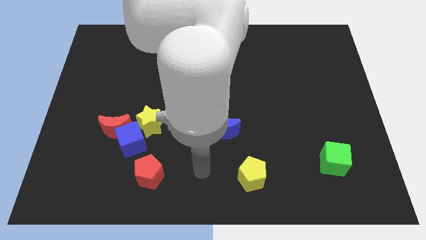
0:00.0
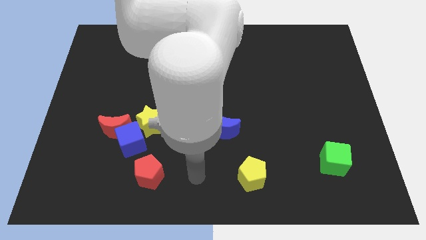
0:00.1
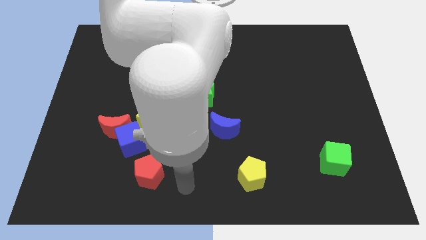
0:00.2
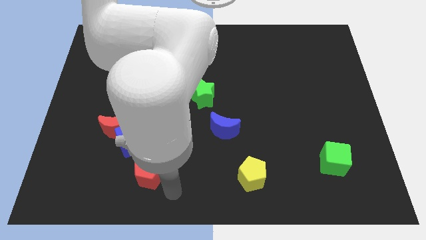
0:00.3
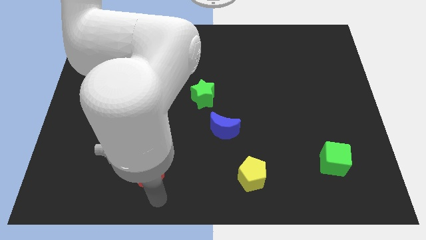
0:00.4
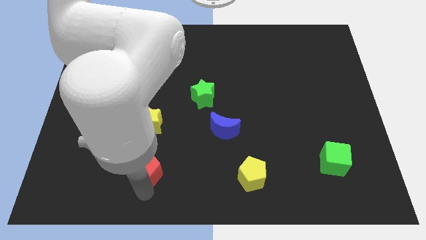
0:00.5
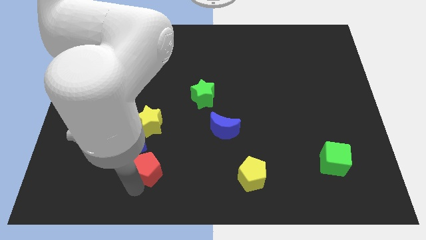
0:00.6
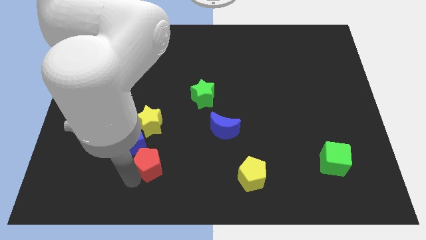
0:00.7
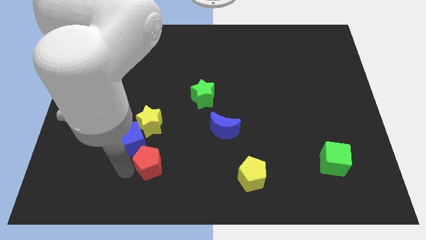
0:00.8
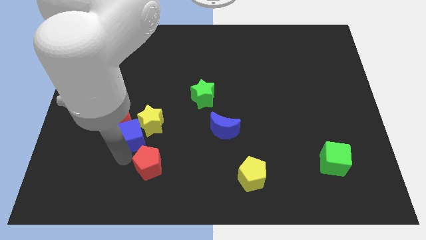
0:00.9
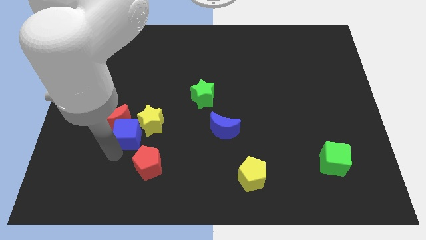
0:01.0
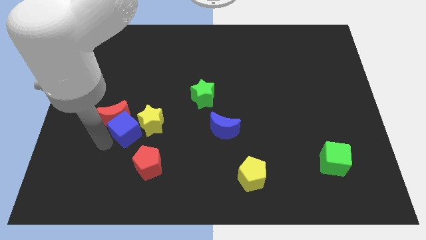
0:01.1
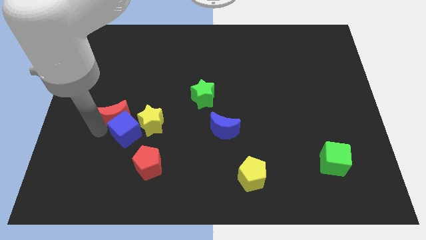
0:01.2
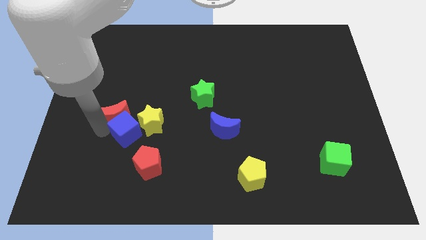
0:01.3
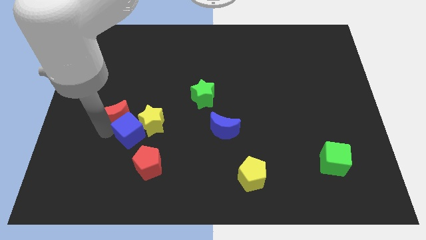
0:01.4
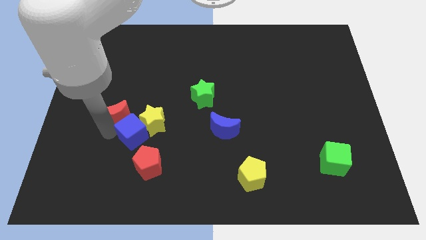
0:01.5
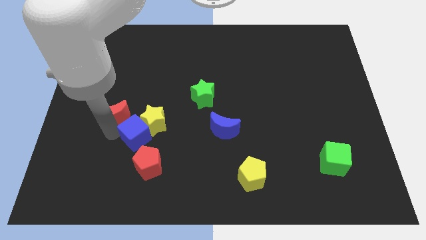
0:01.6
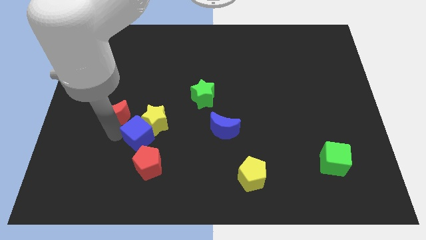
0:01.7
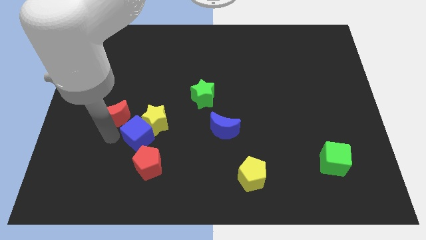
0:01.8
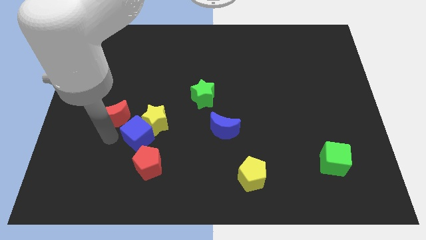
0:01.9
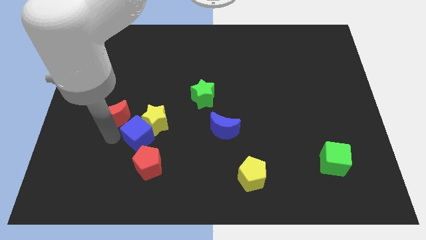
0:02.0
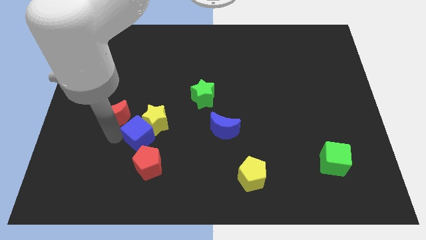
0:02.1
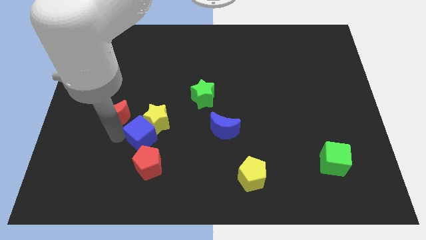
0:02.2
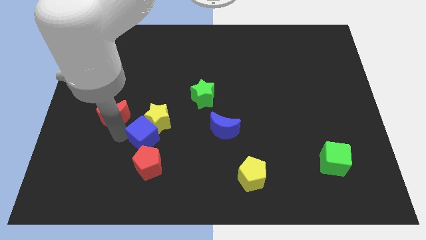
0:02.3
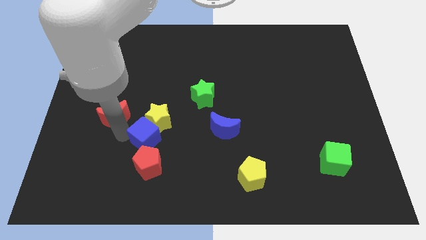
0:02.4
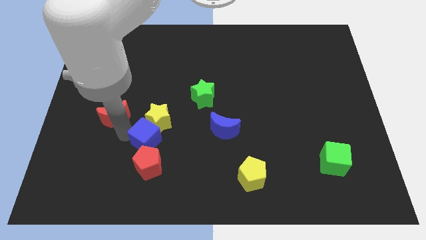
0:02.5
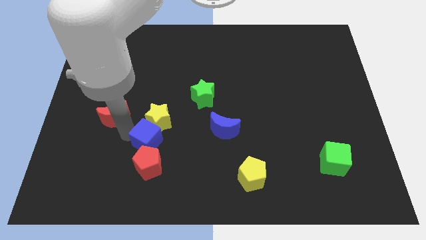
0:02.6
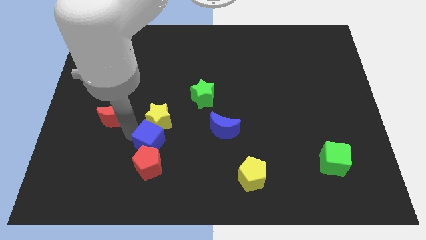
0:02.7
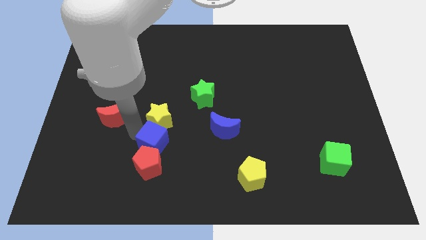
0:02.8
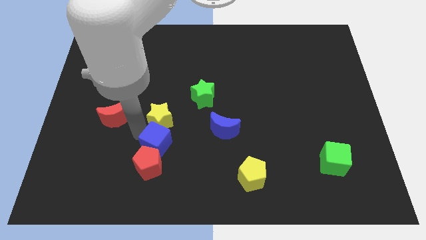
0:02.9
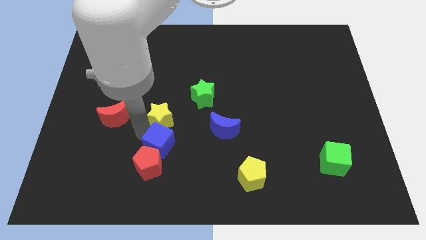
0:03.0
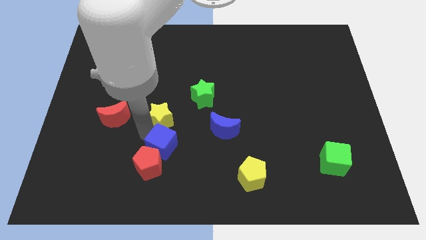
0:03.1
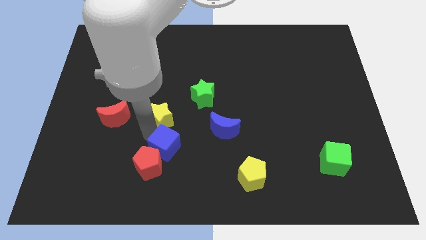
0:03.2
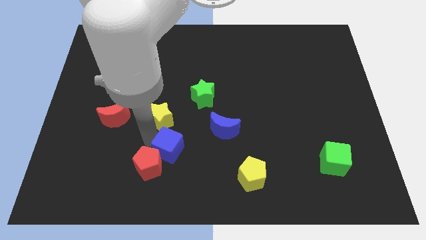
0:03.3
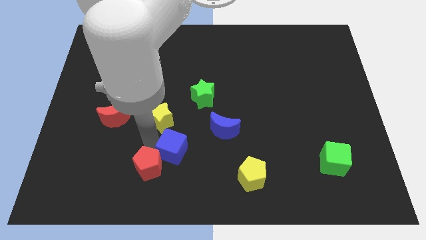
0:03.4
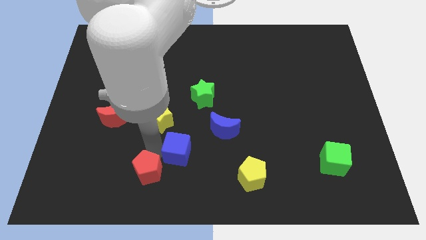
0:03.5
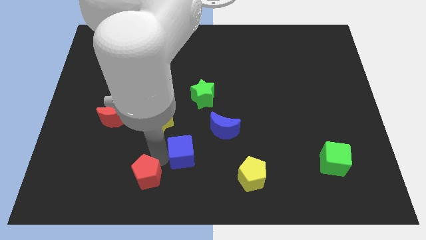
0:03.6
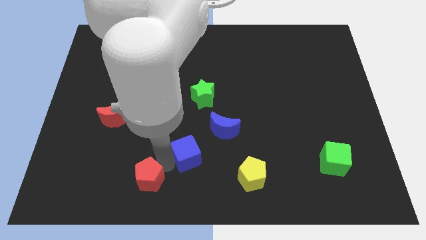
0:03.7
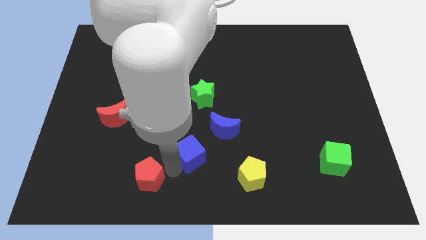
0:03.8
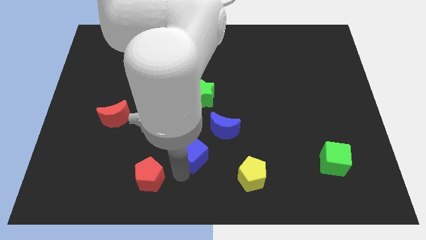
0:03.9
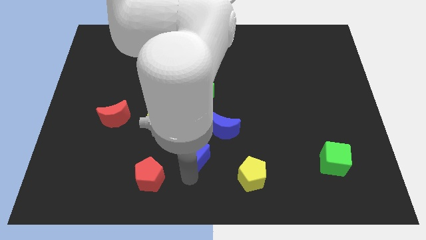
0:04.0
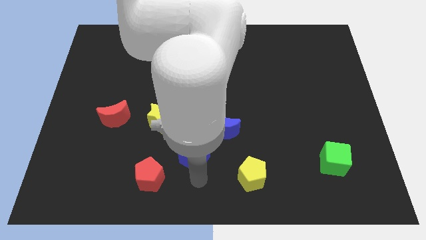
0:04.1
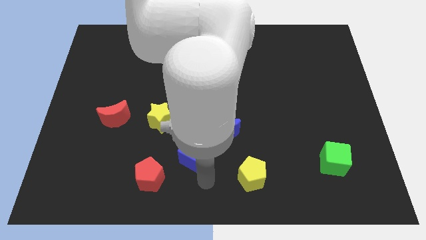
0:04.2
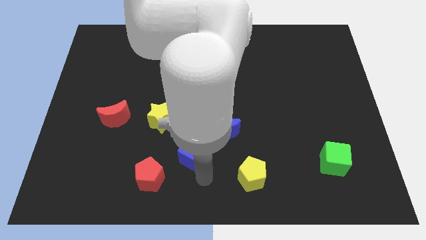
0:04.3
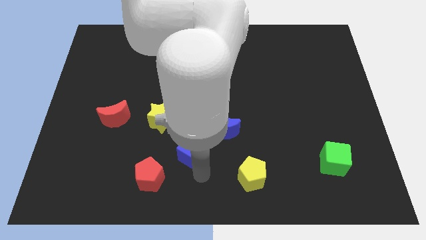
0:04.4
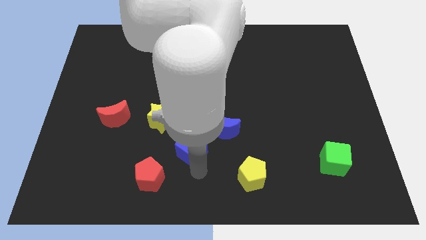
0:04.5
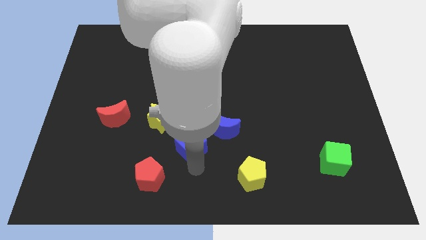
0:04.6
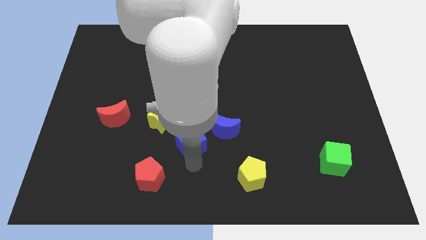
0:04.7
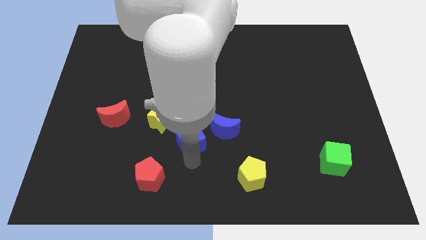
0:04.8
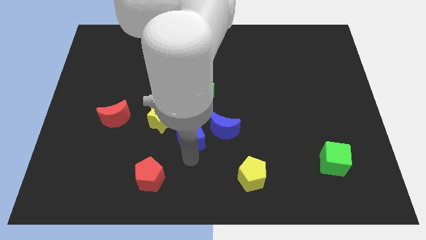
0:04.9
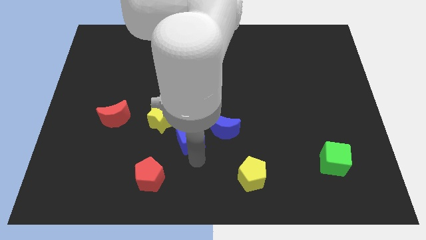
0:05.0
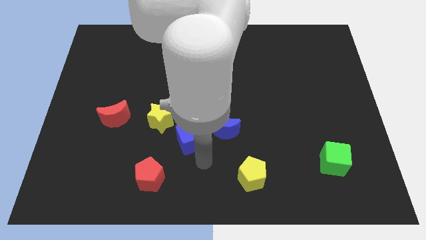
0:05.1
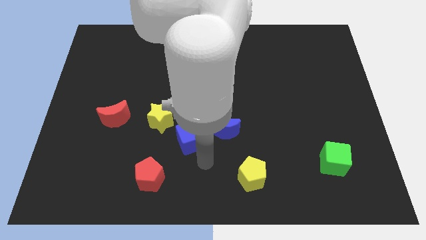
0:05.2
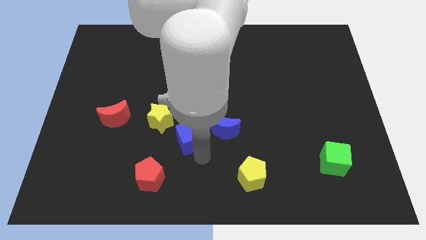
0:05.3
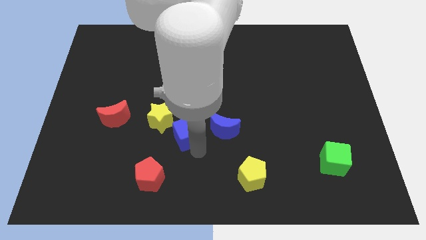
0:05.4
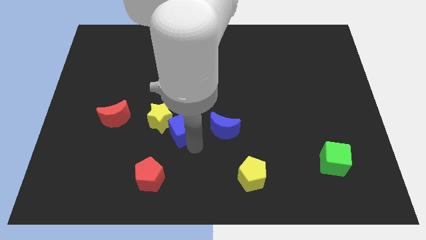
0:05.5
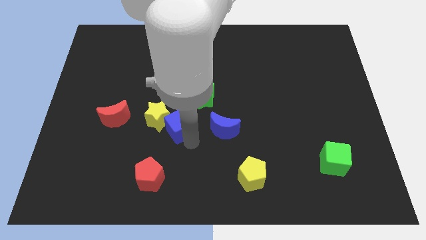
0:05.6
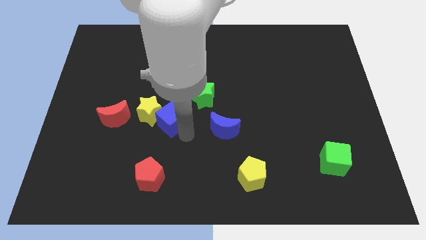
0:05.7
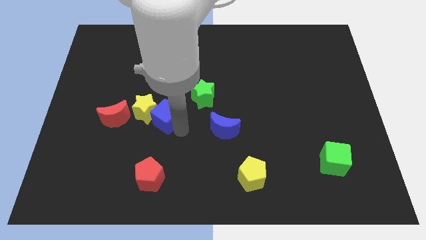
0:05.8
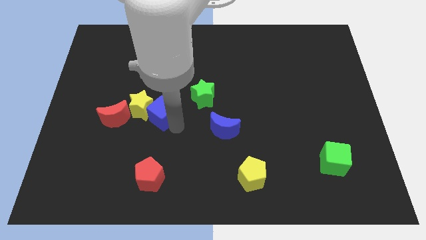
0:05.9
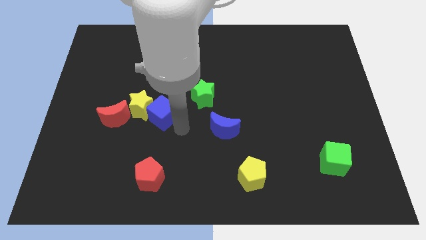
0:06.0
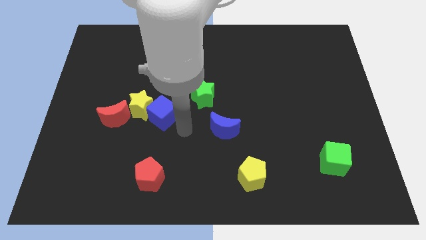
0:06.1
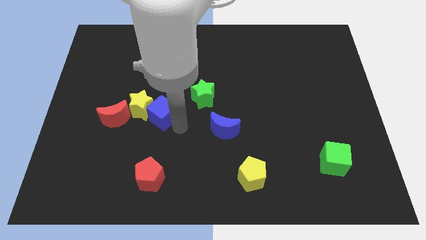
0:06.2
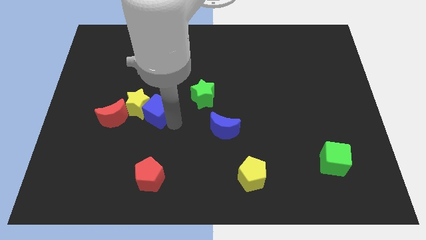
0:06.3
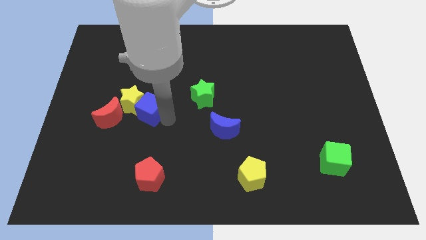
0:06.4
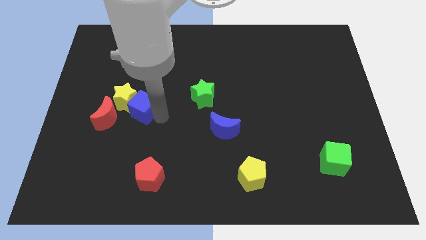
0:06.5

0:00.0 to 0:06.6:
slide the blue cube to the top right of the red moon

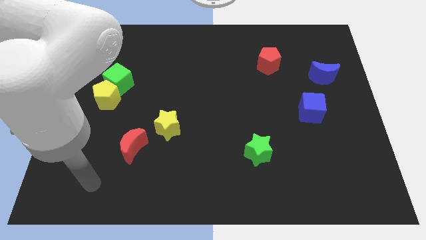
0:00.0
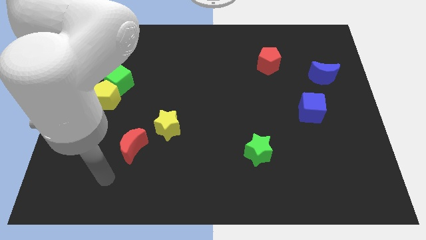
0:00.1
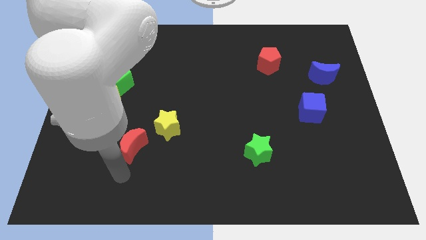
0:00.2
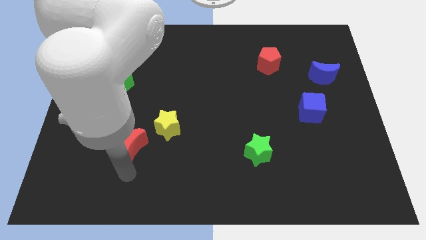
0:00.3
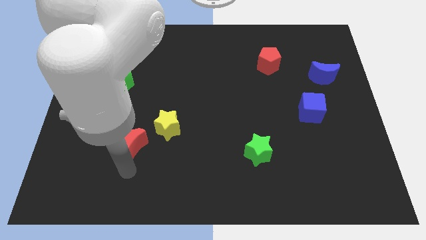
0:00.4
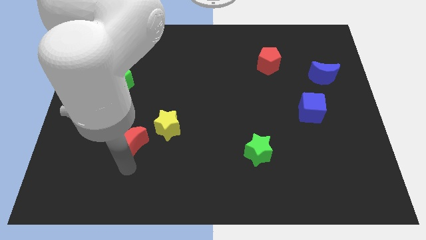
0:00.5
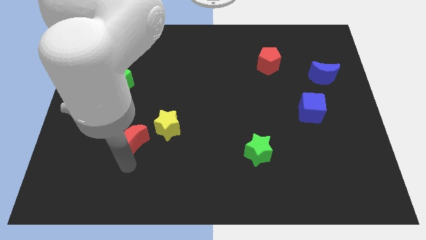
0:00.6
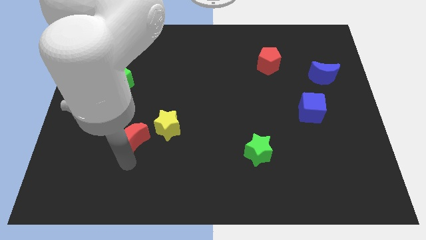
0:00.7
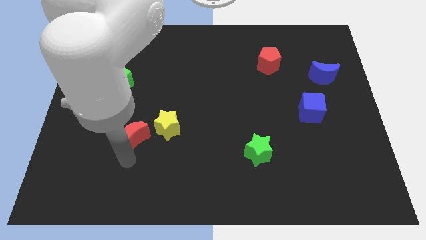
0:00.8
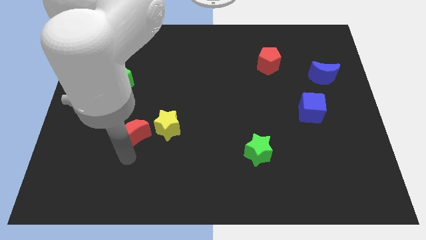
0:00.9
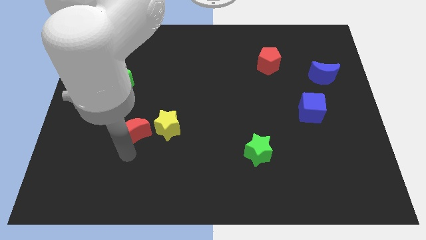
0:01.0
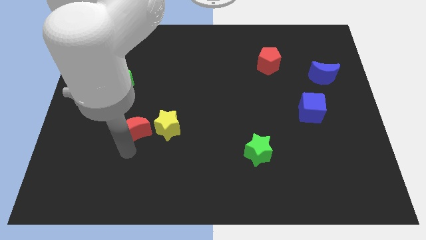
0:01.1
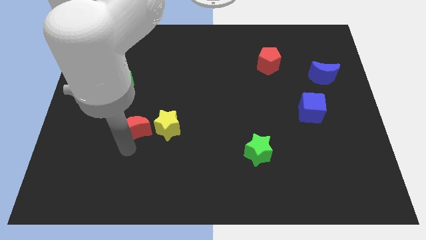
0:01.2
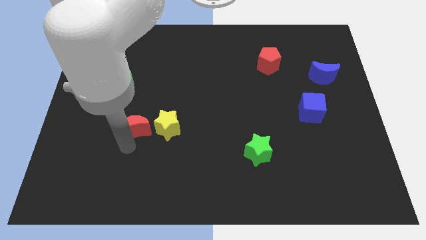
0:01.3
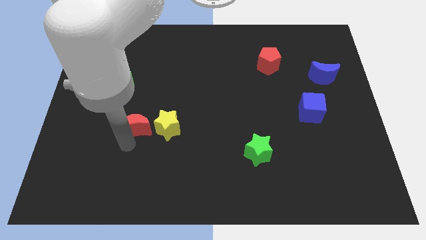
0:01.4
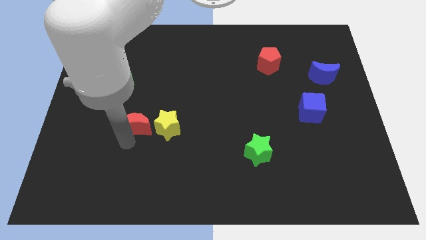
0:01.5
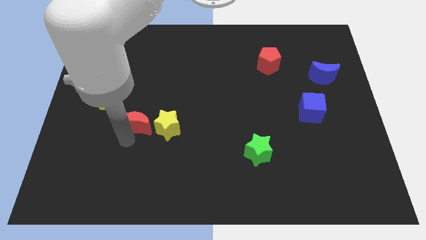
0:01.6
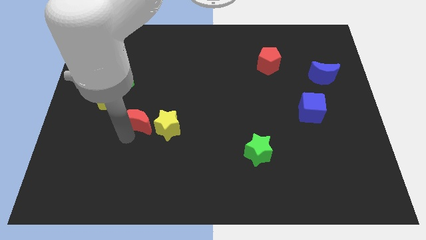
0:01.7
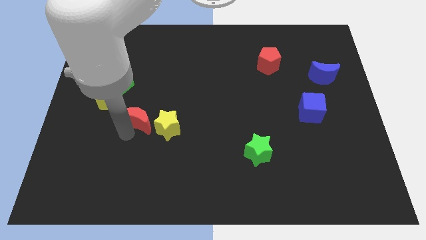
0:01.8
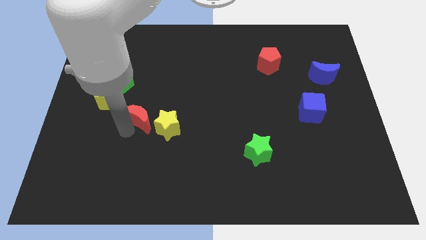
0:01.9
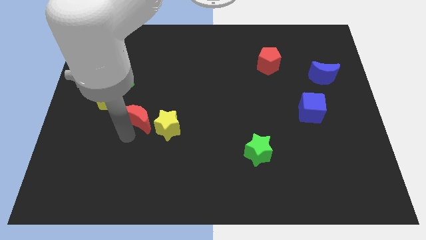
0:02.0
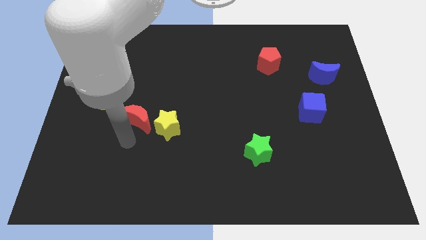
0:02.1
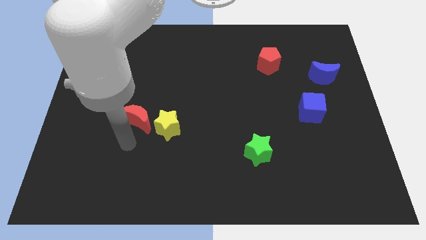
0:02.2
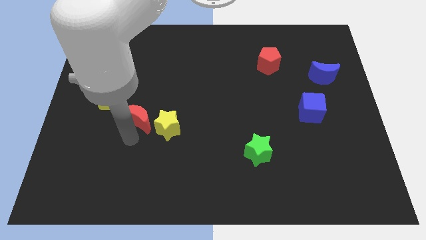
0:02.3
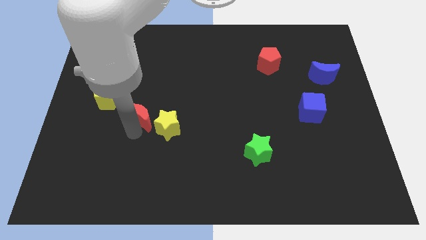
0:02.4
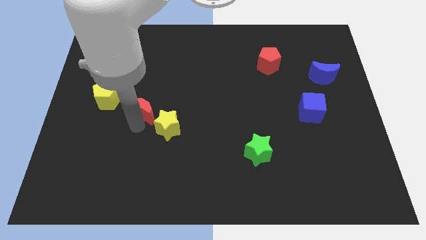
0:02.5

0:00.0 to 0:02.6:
push the red moon right of the yellow pentagon
